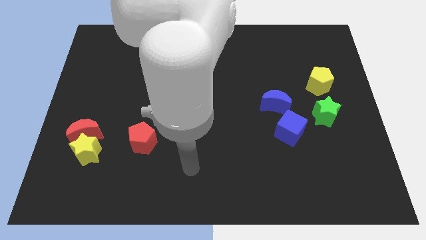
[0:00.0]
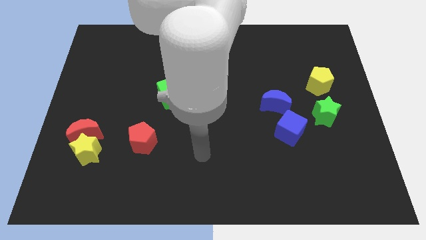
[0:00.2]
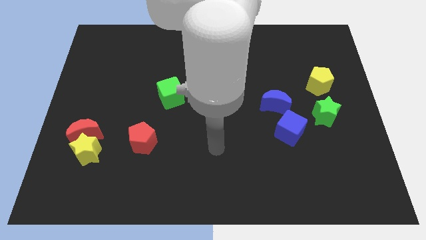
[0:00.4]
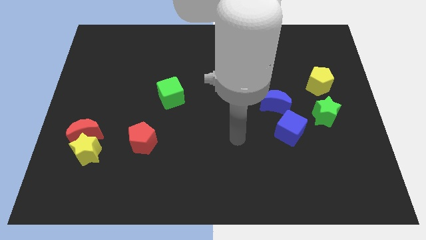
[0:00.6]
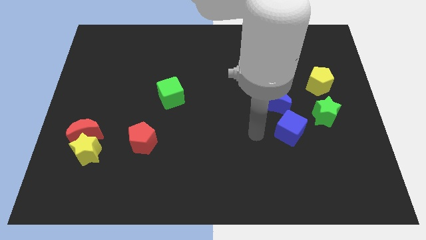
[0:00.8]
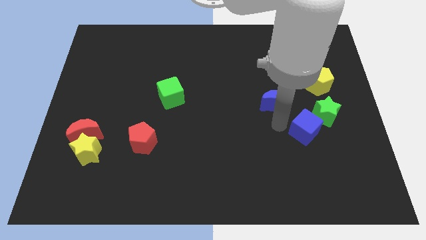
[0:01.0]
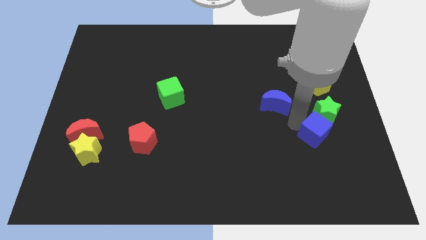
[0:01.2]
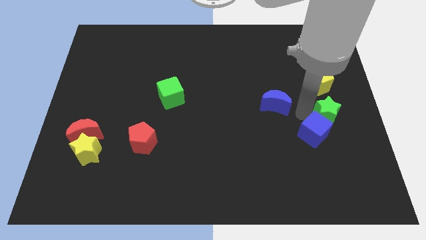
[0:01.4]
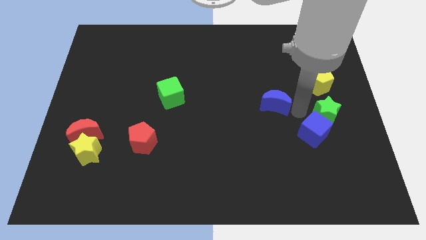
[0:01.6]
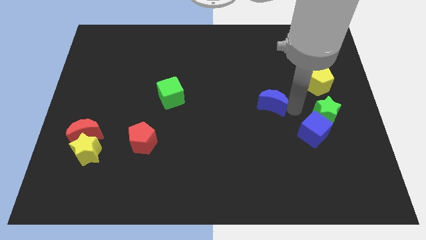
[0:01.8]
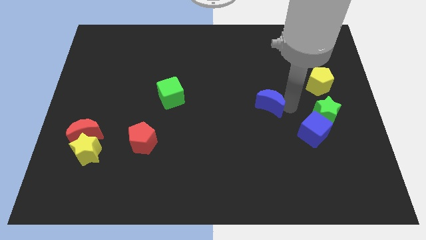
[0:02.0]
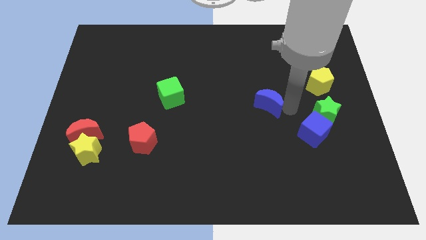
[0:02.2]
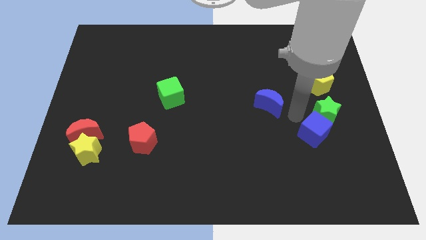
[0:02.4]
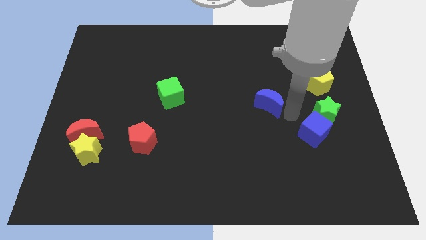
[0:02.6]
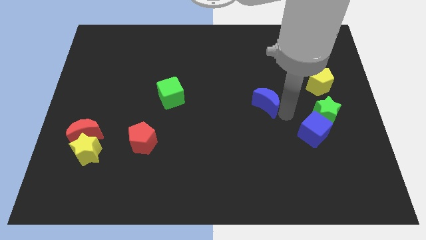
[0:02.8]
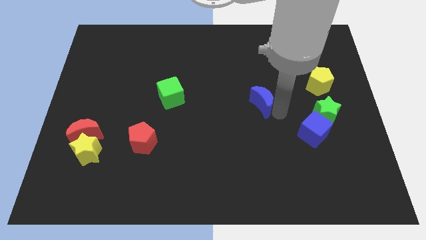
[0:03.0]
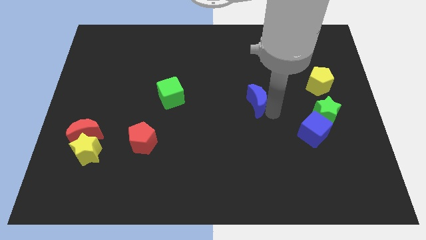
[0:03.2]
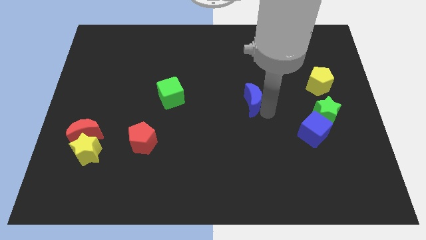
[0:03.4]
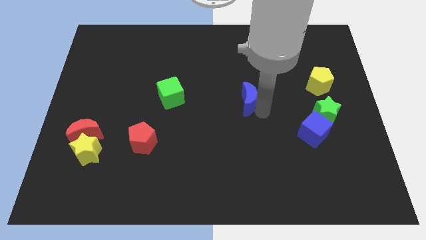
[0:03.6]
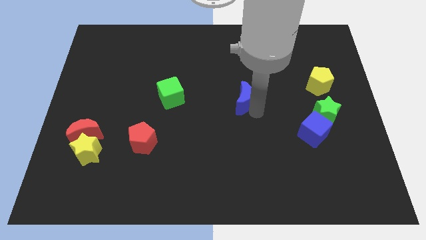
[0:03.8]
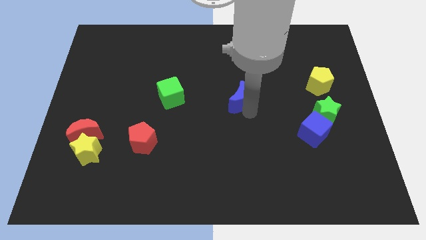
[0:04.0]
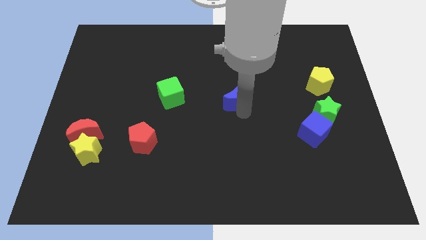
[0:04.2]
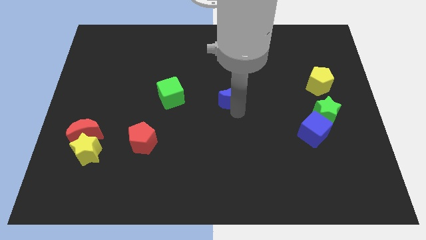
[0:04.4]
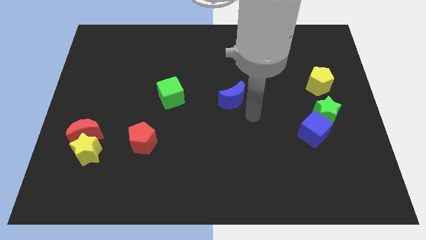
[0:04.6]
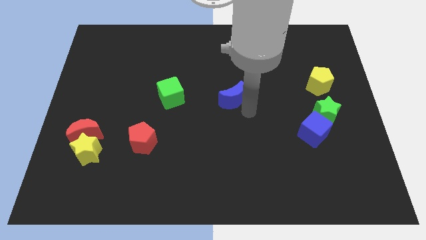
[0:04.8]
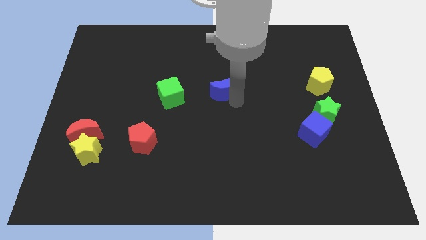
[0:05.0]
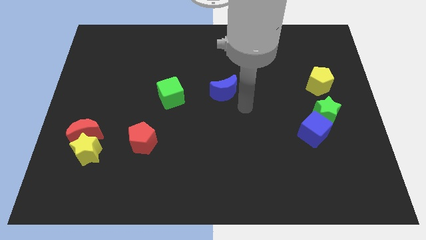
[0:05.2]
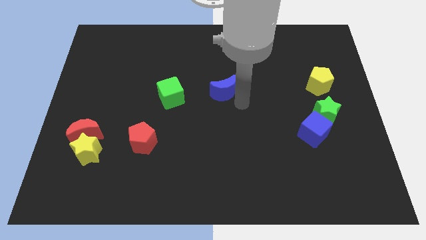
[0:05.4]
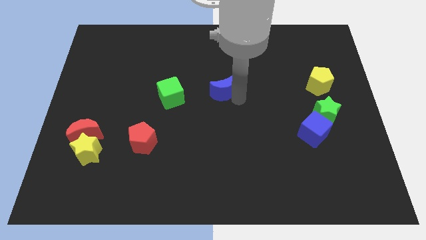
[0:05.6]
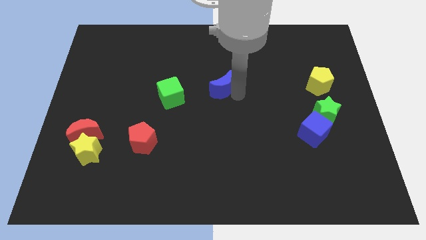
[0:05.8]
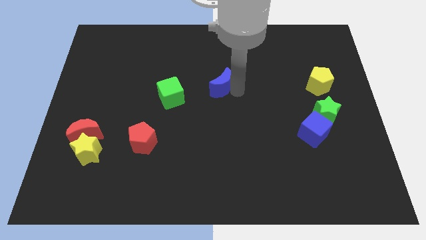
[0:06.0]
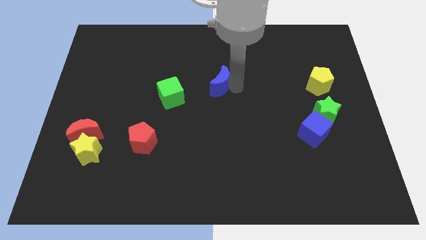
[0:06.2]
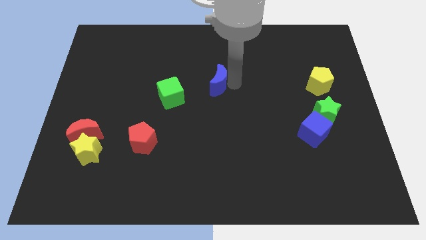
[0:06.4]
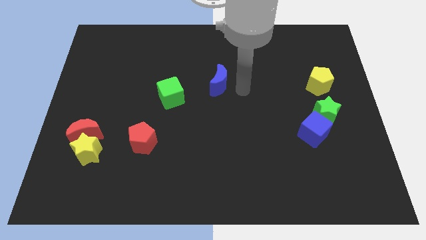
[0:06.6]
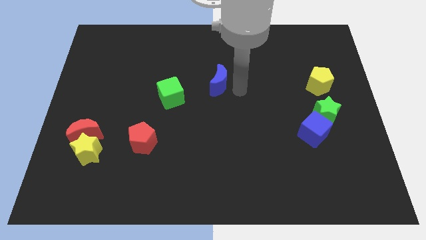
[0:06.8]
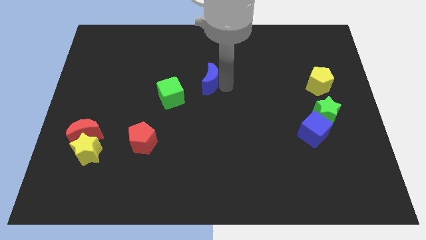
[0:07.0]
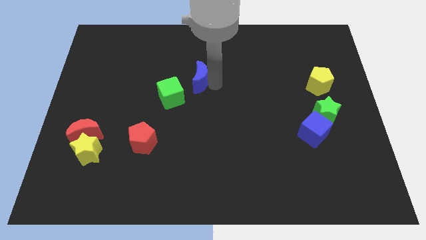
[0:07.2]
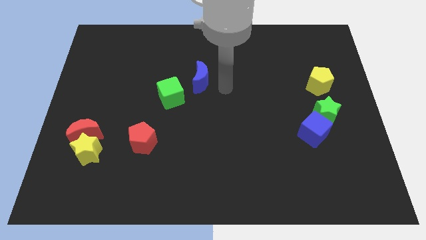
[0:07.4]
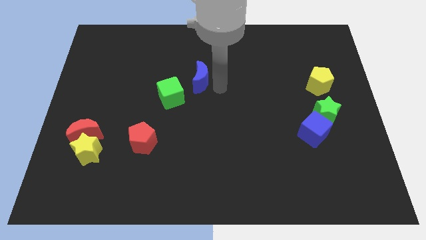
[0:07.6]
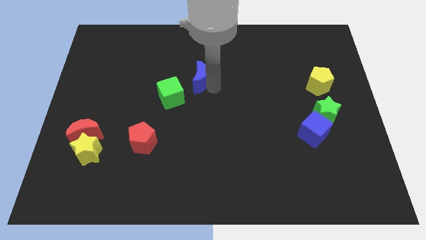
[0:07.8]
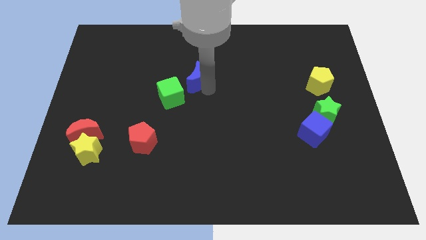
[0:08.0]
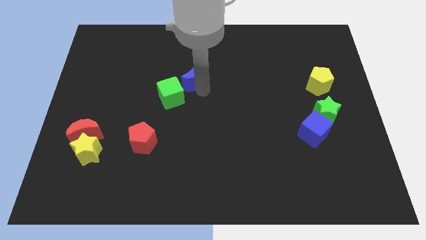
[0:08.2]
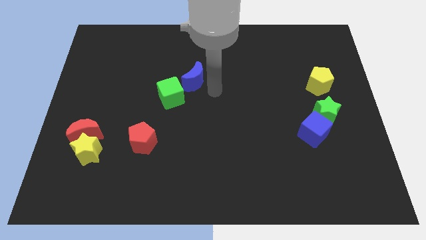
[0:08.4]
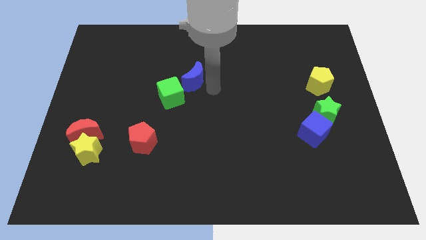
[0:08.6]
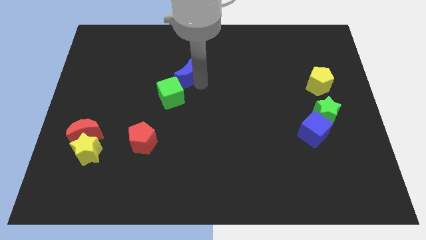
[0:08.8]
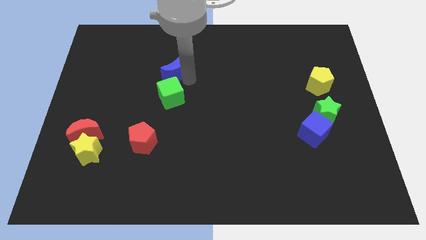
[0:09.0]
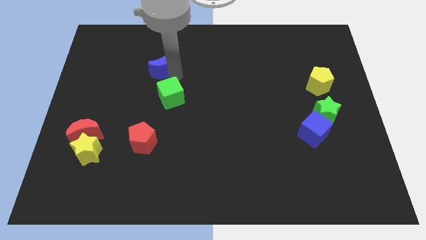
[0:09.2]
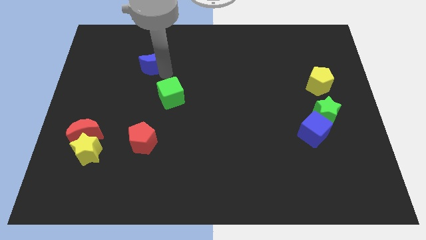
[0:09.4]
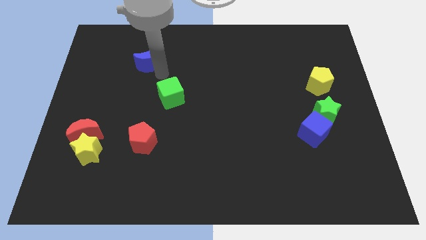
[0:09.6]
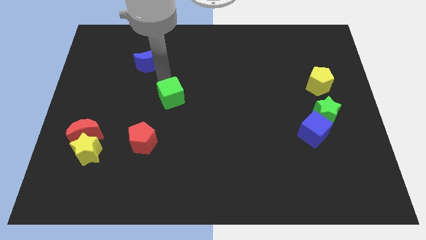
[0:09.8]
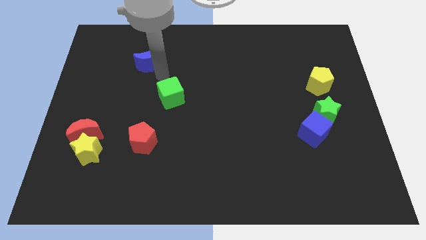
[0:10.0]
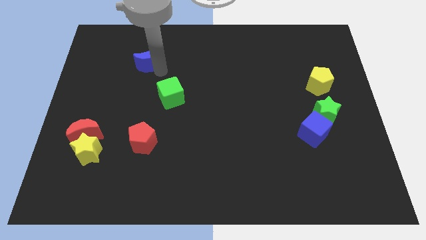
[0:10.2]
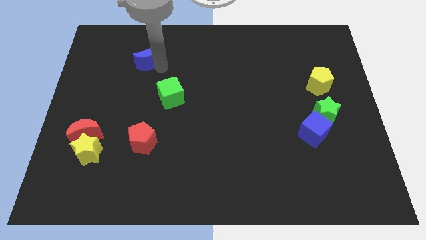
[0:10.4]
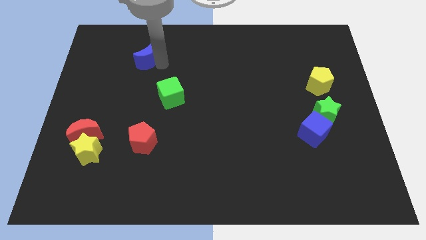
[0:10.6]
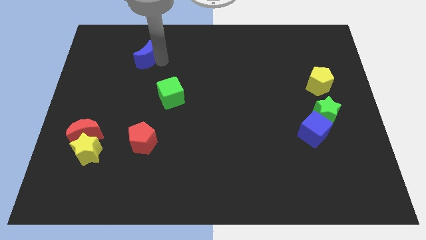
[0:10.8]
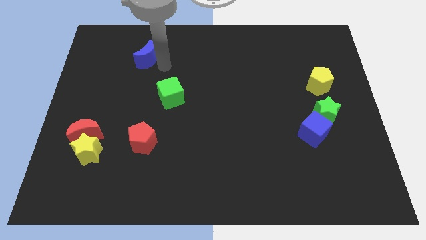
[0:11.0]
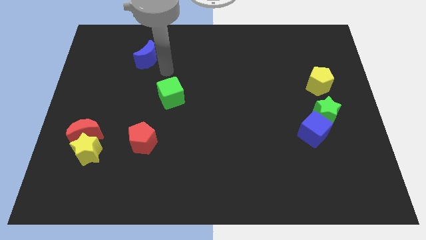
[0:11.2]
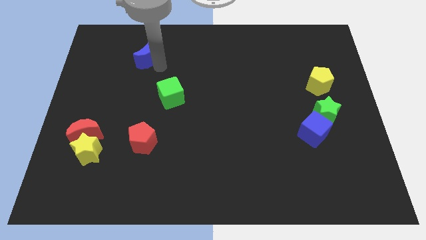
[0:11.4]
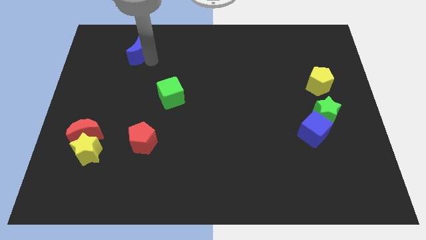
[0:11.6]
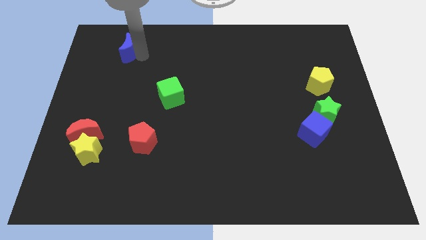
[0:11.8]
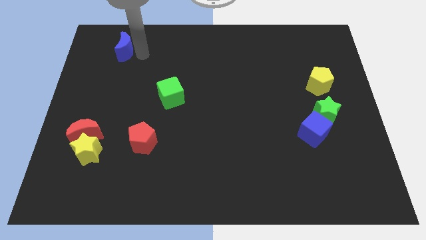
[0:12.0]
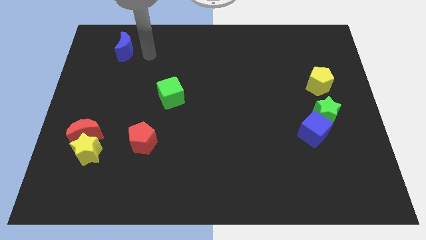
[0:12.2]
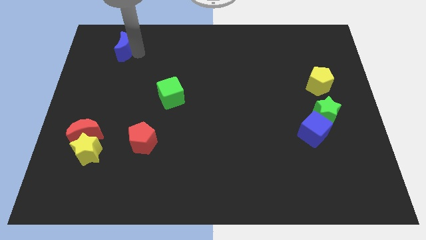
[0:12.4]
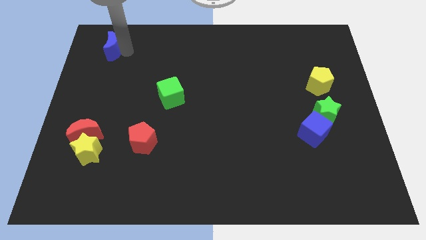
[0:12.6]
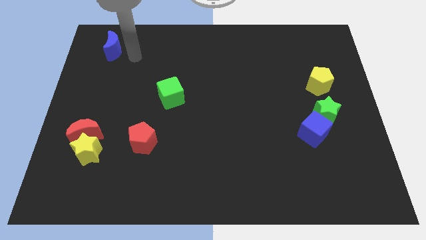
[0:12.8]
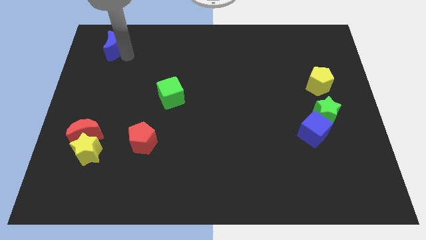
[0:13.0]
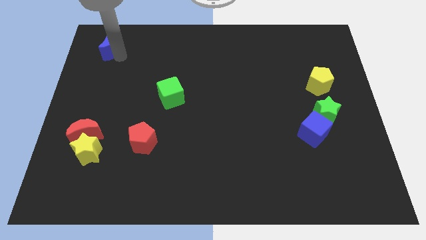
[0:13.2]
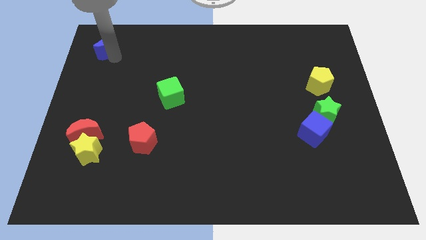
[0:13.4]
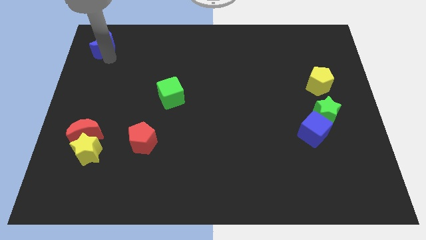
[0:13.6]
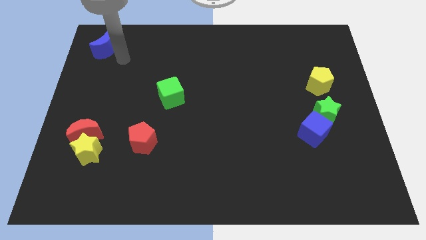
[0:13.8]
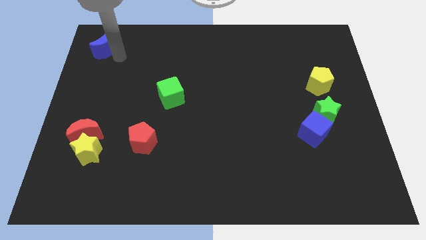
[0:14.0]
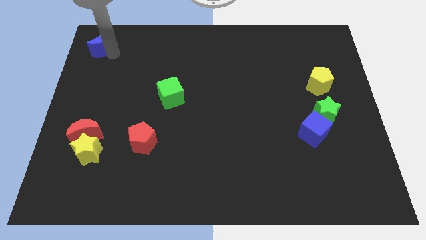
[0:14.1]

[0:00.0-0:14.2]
move the blue moon to the upper left corner
